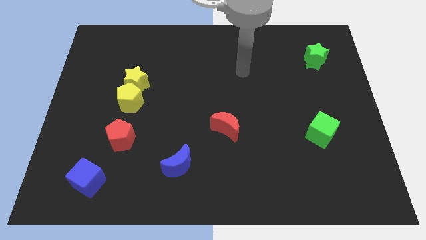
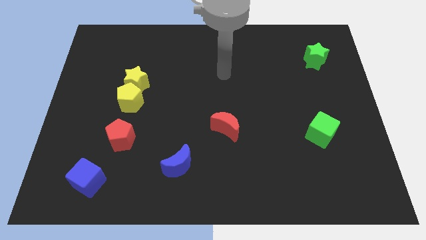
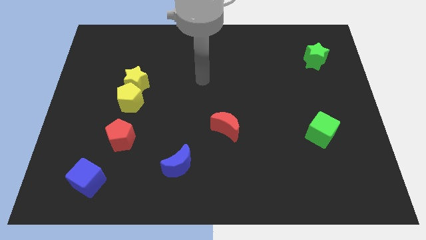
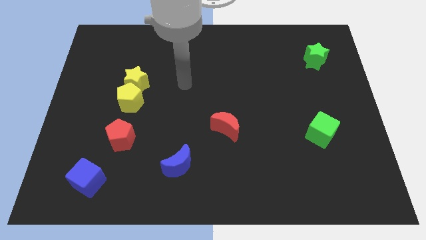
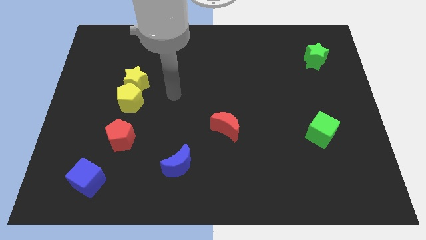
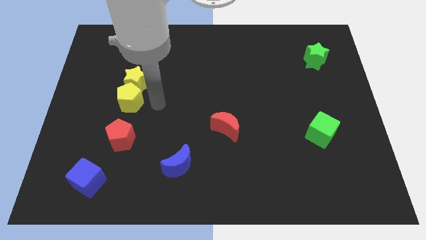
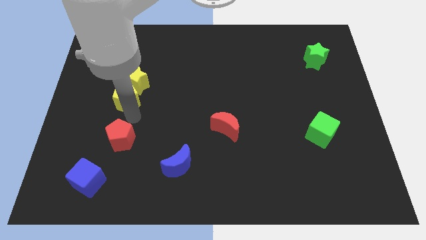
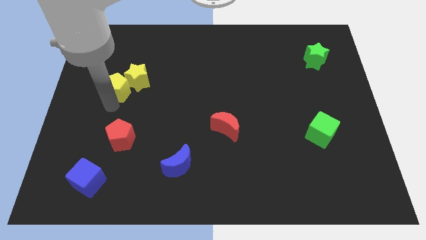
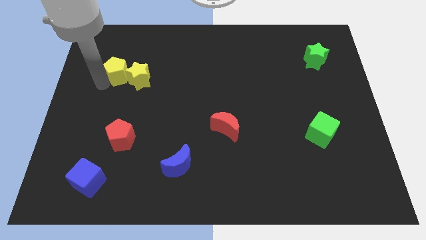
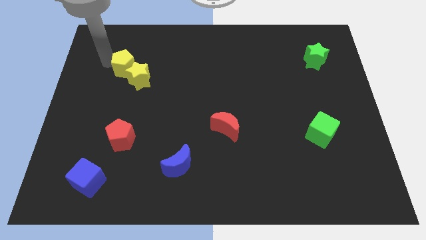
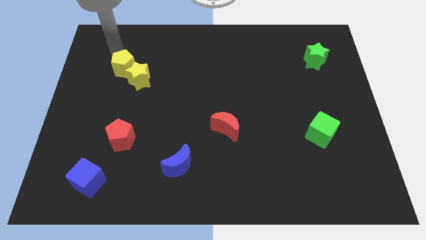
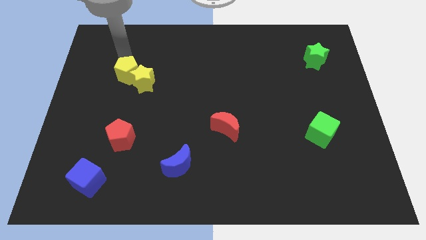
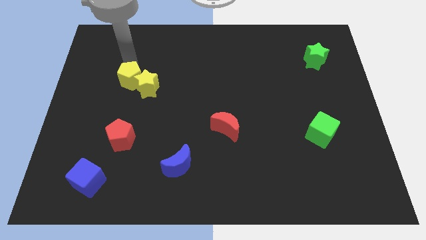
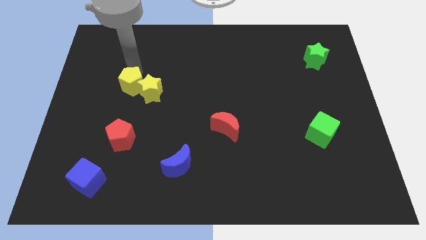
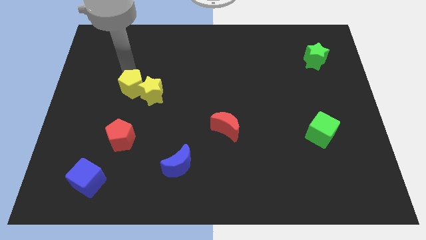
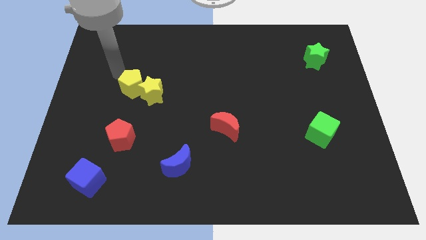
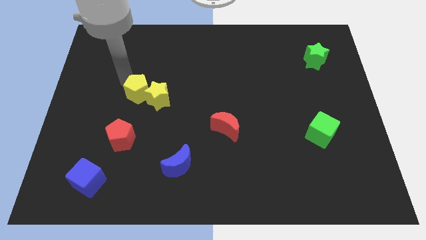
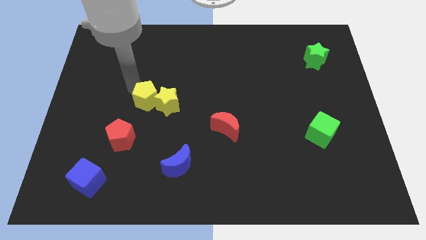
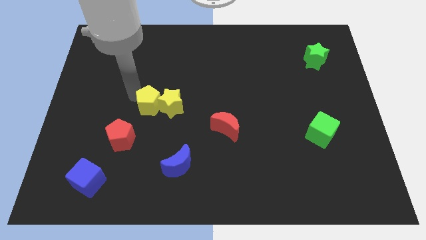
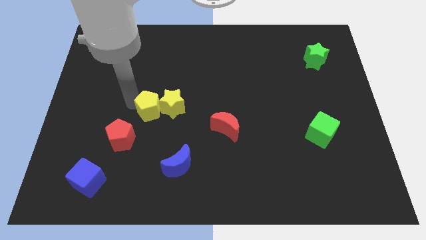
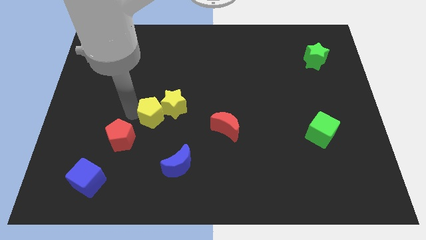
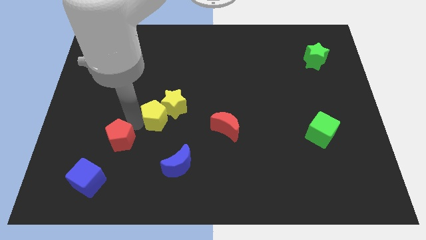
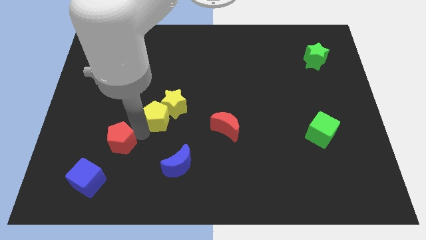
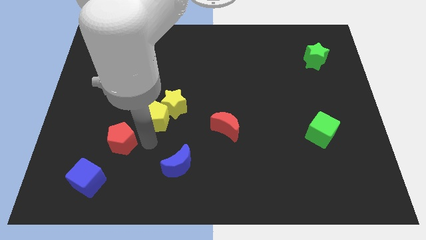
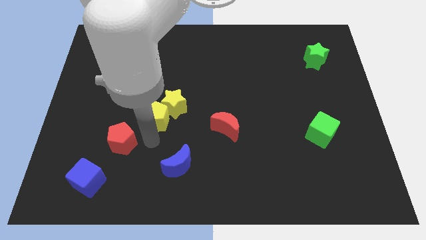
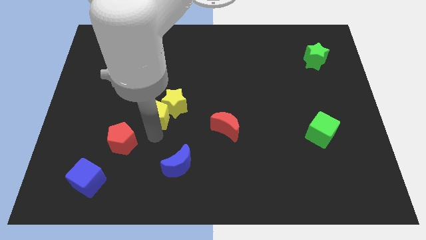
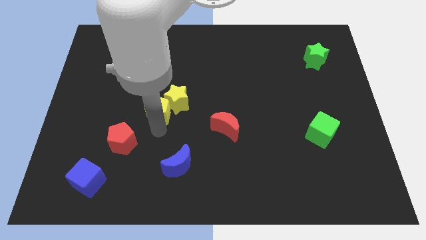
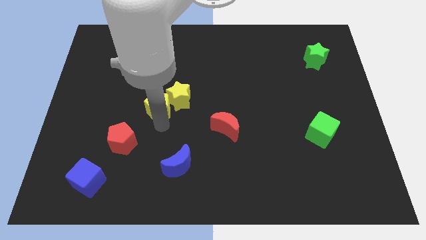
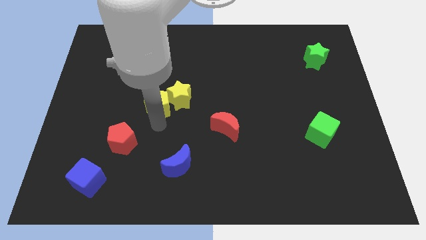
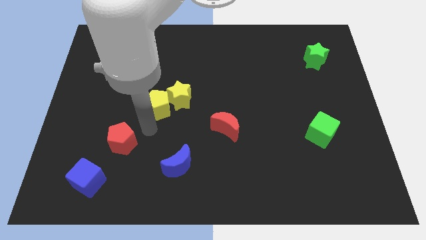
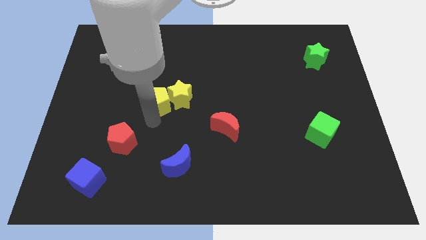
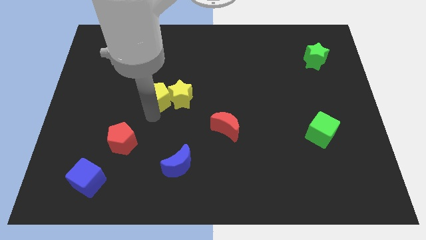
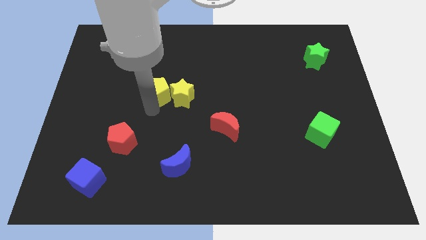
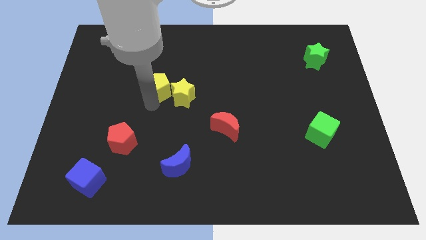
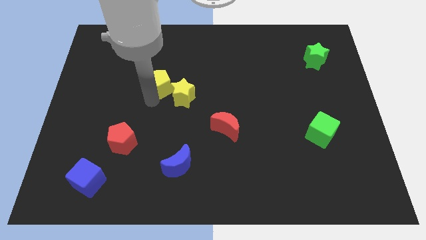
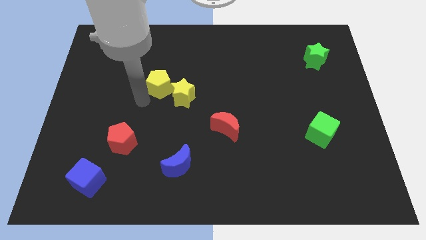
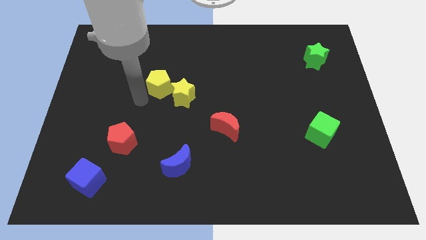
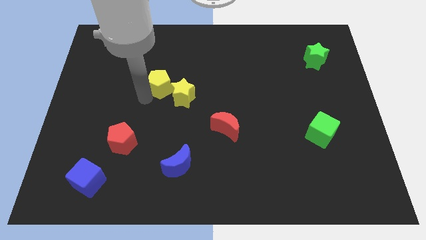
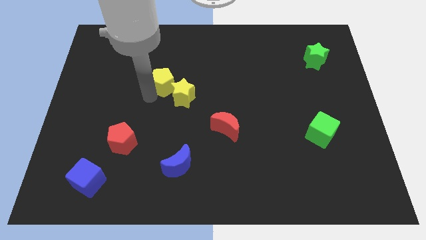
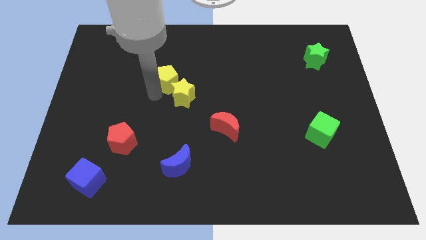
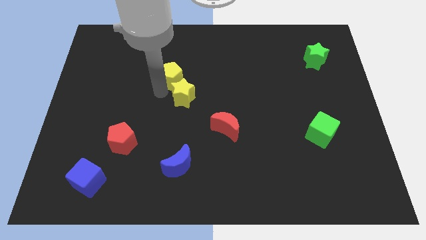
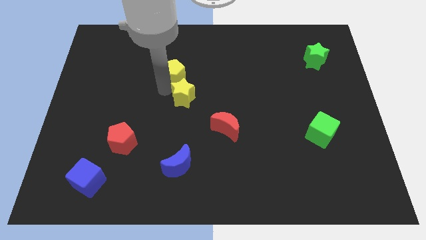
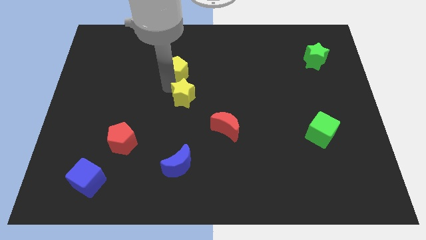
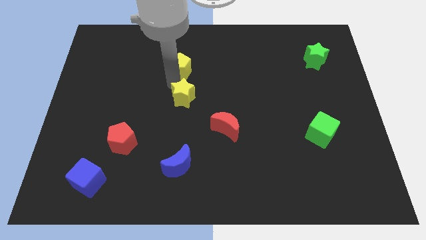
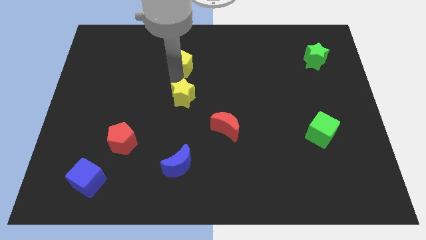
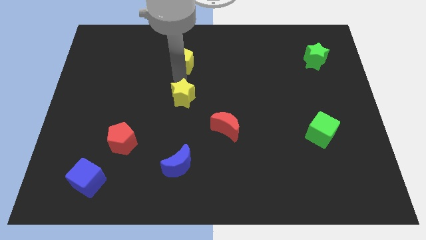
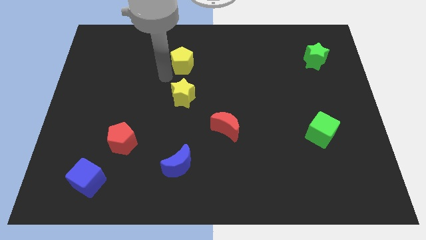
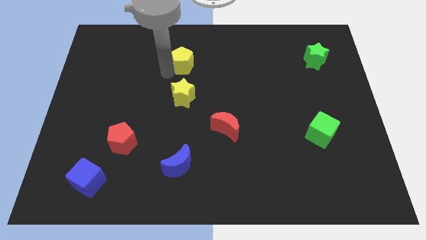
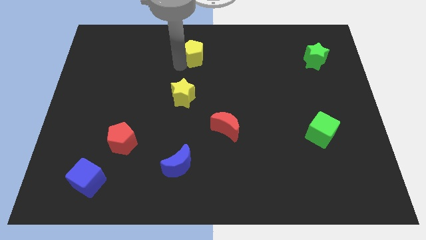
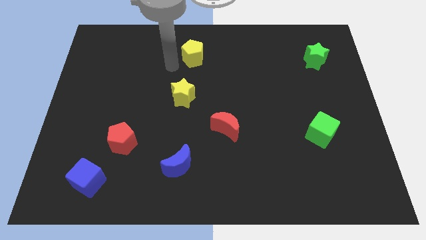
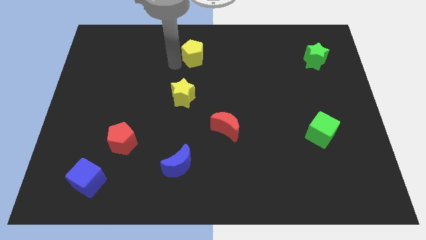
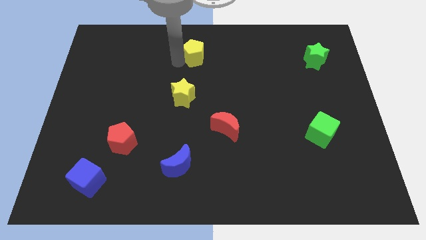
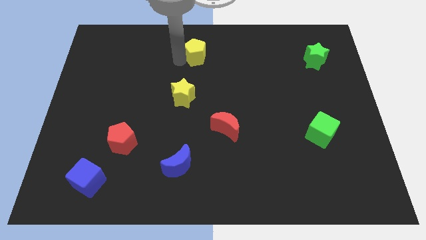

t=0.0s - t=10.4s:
put the yellow pentagon to the top

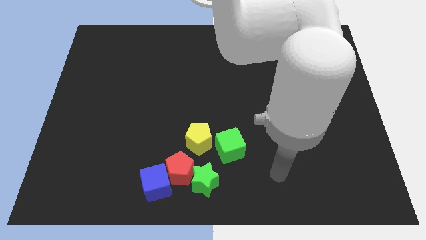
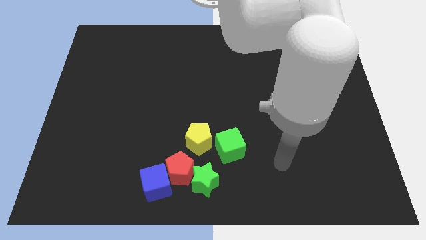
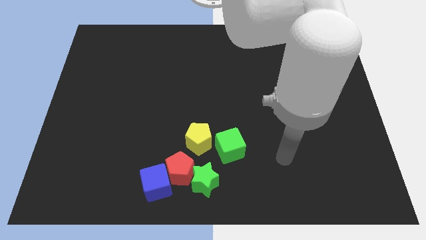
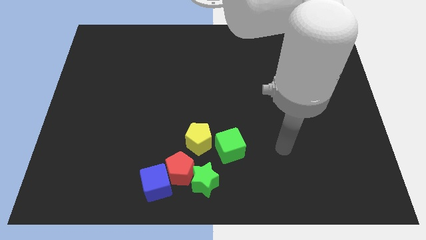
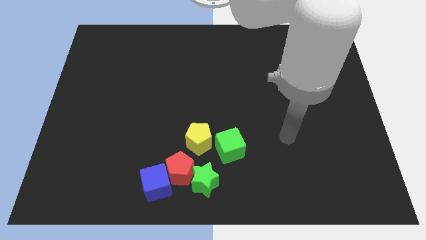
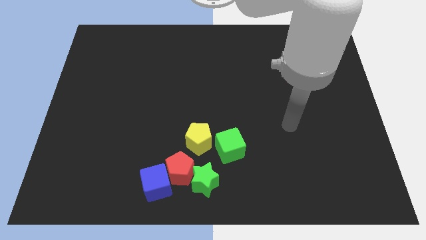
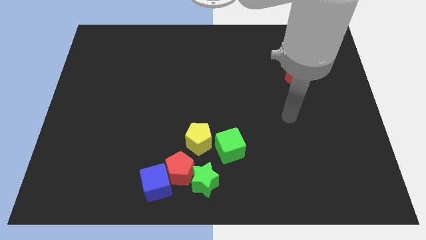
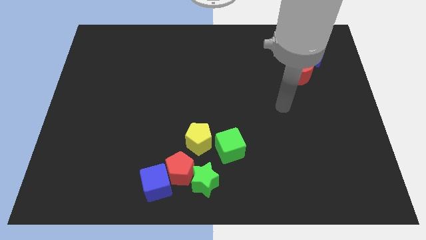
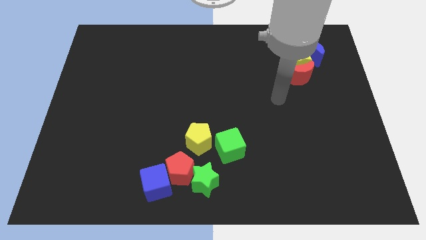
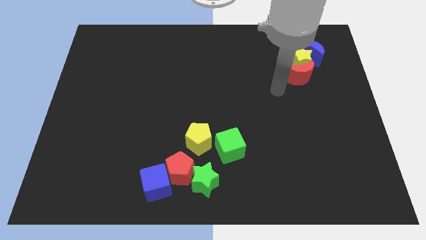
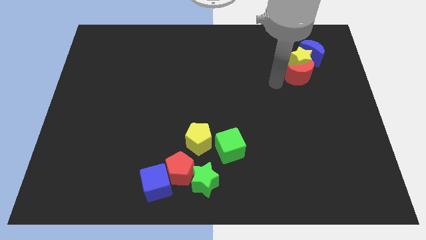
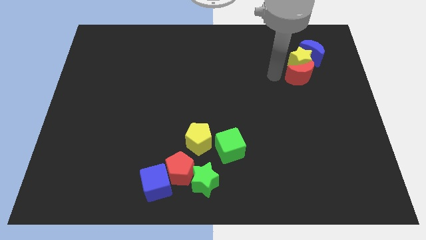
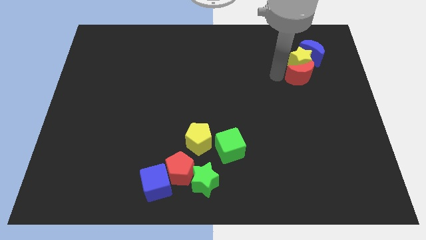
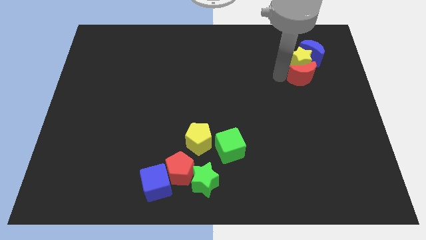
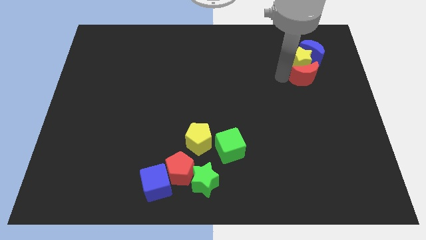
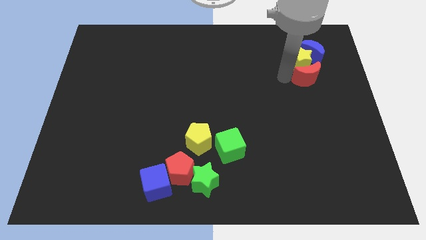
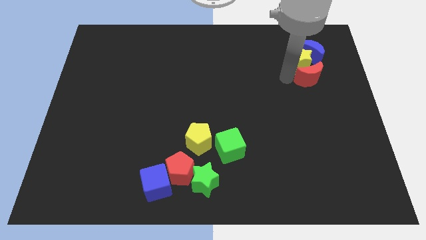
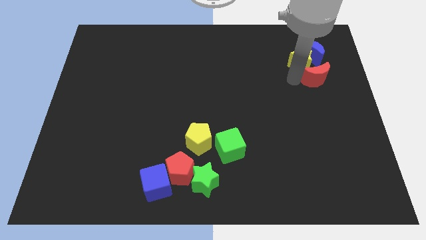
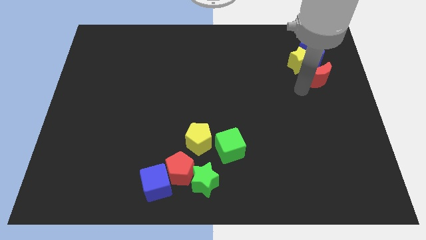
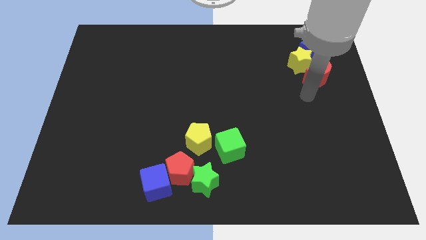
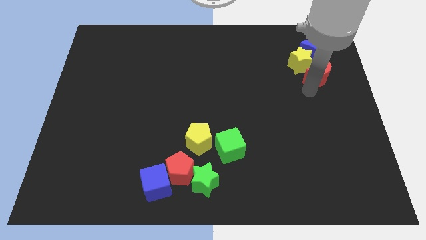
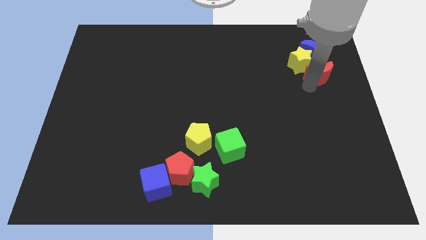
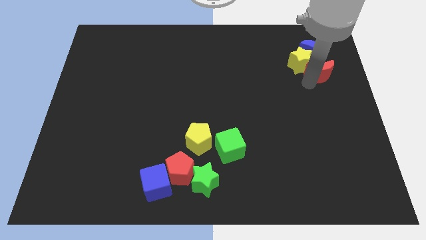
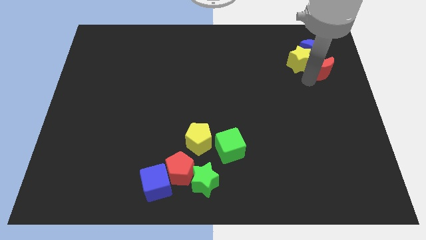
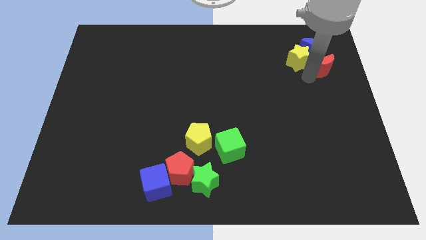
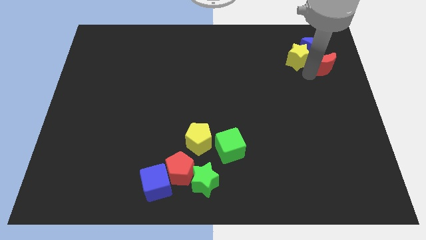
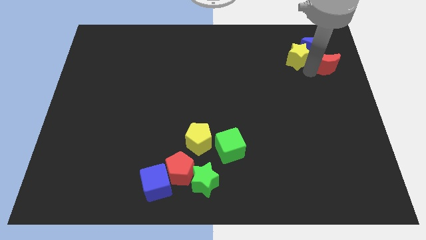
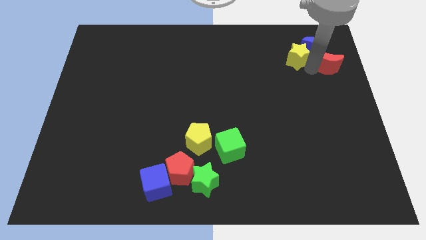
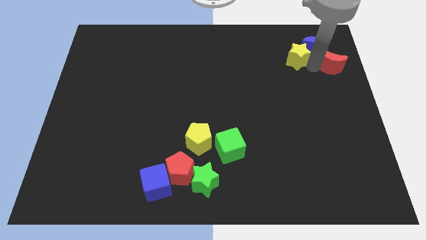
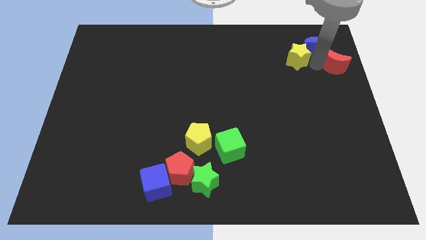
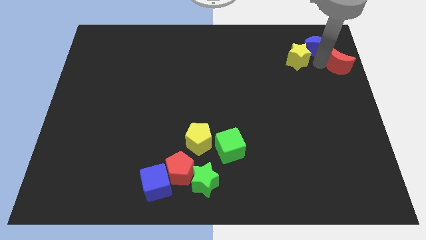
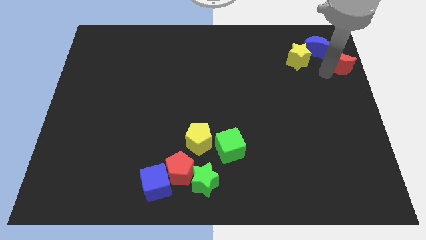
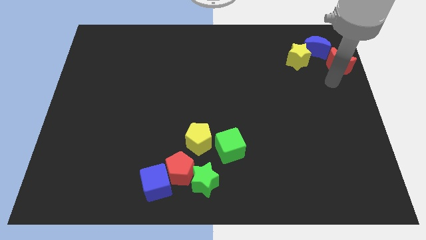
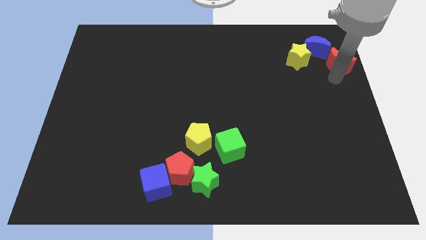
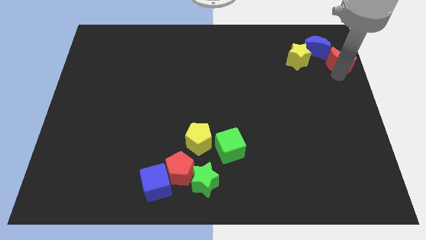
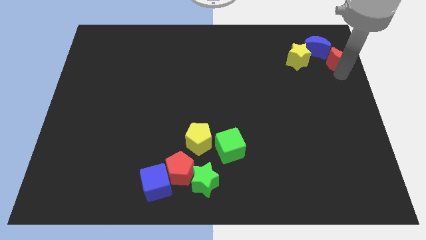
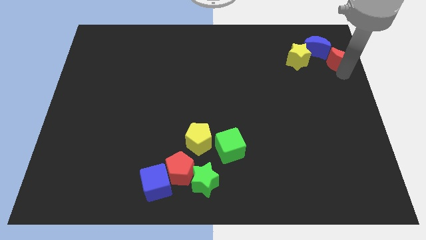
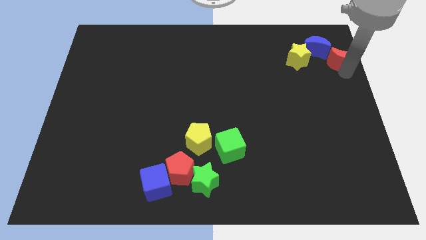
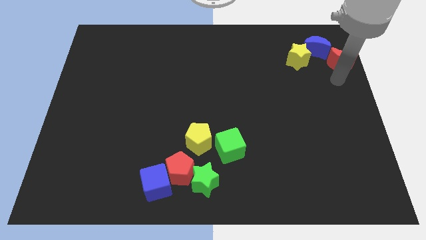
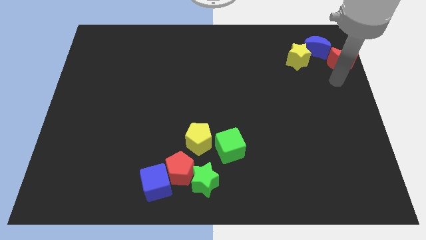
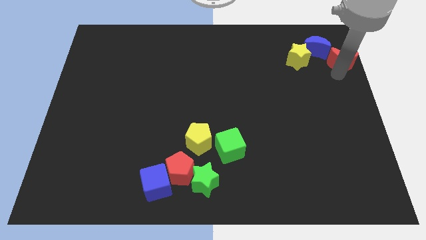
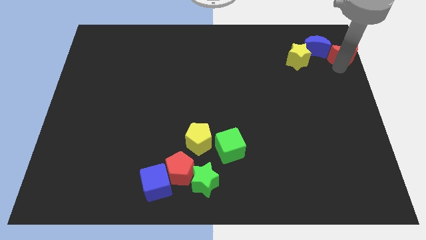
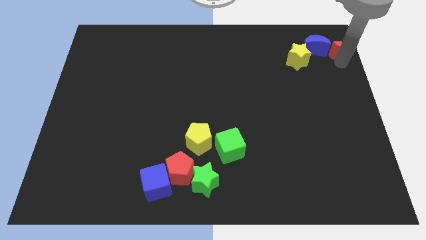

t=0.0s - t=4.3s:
slide the red moon to the top right corner
